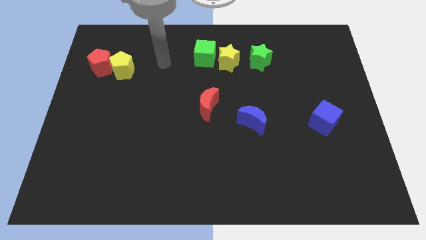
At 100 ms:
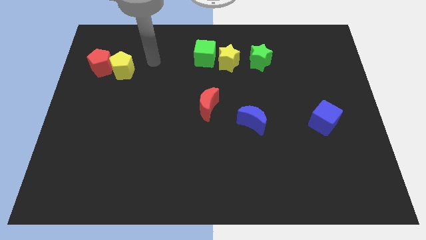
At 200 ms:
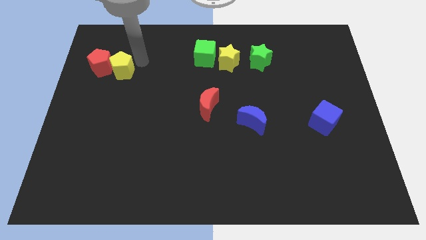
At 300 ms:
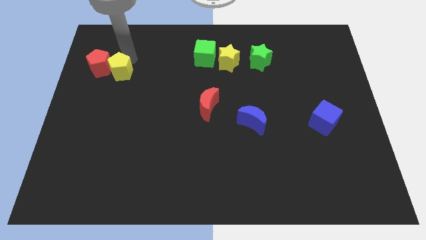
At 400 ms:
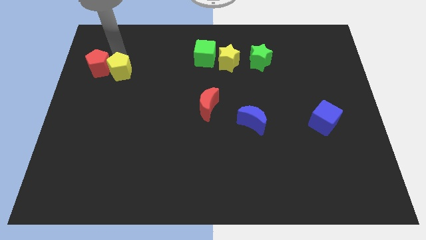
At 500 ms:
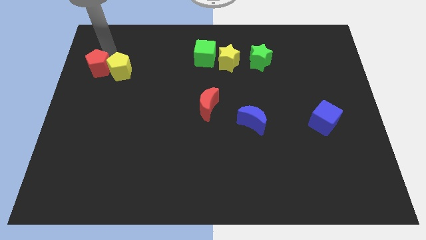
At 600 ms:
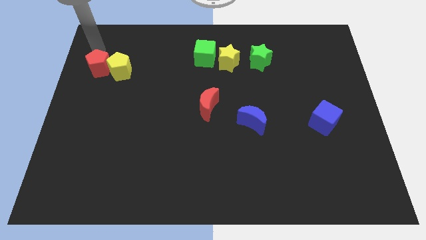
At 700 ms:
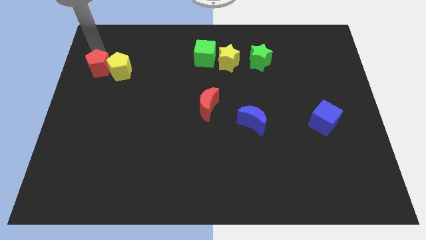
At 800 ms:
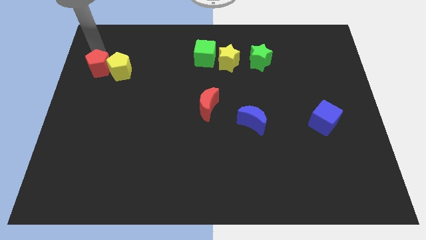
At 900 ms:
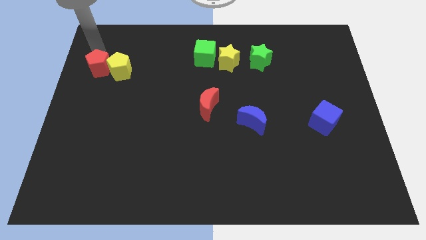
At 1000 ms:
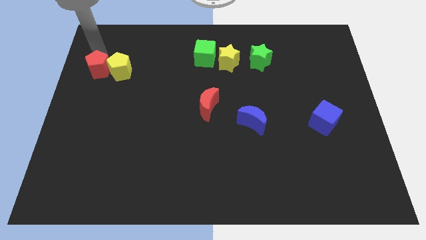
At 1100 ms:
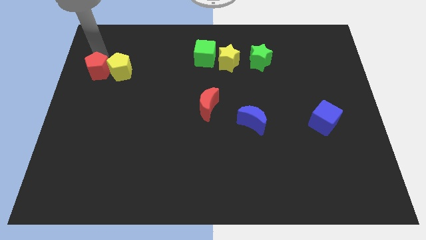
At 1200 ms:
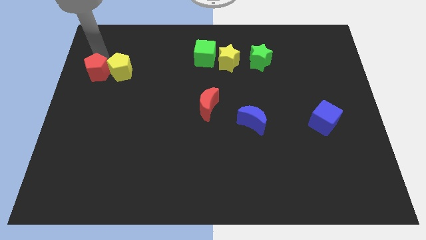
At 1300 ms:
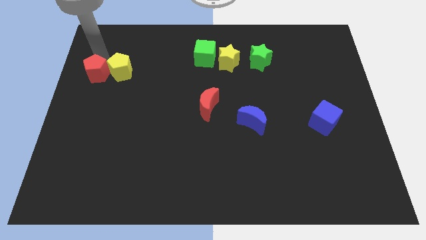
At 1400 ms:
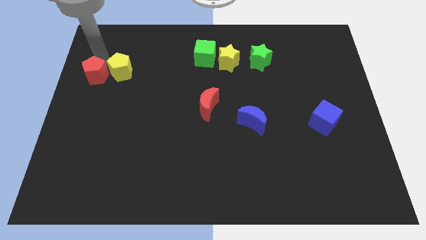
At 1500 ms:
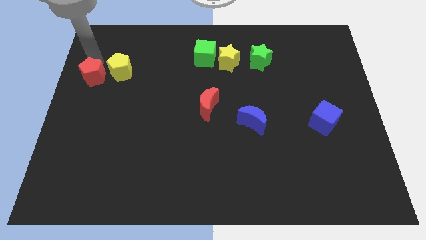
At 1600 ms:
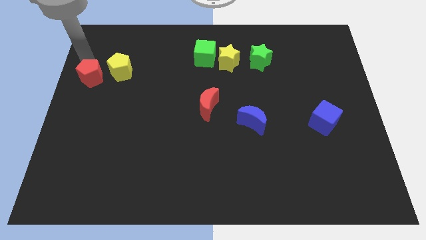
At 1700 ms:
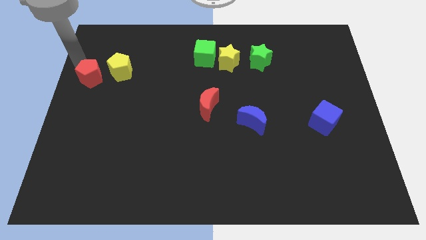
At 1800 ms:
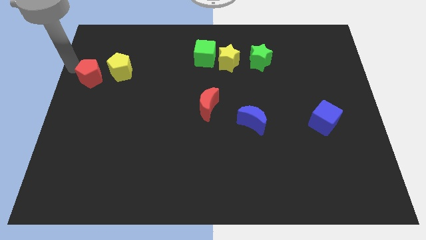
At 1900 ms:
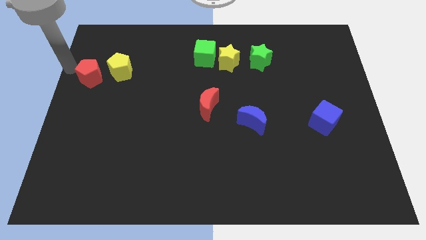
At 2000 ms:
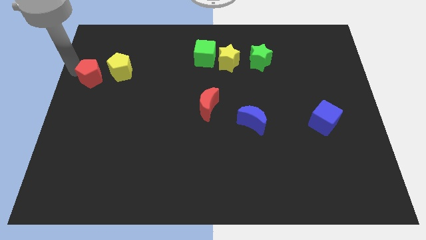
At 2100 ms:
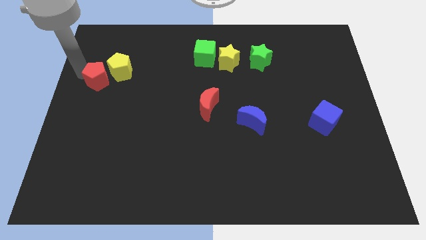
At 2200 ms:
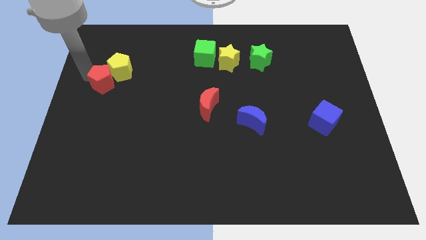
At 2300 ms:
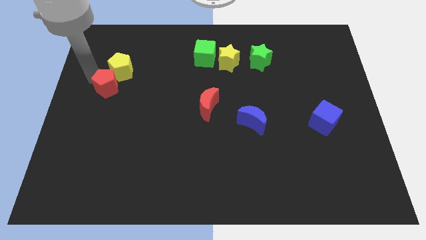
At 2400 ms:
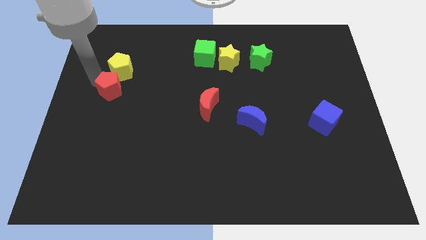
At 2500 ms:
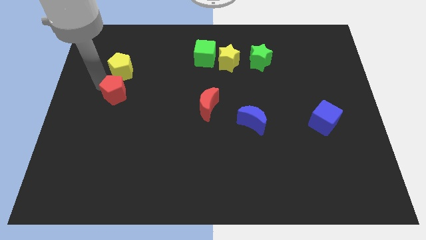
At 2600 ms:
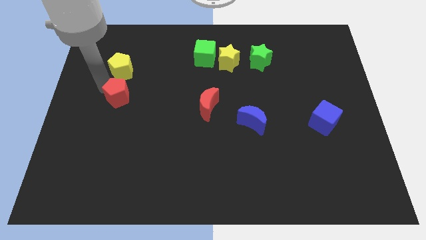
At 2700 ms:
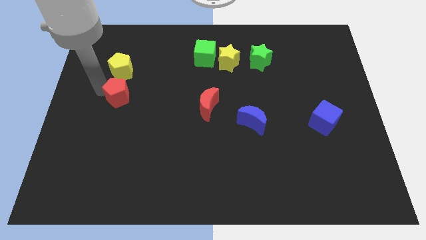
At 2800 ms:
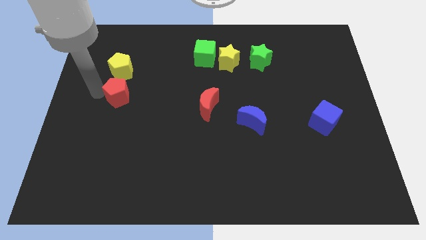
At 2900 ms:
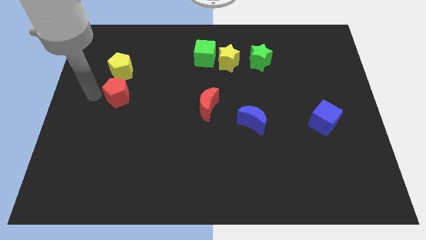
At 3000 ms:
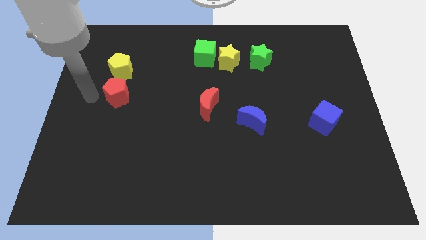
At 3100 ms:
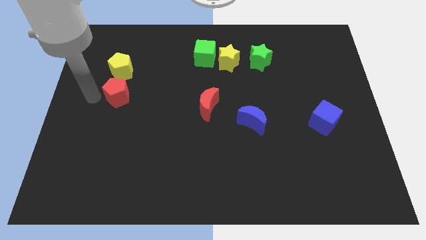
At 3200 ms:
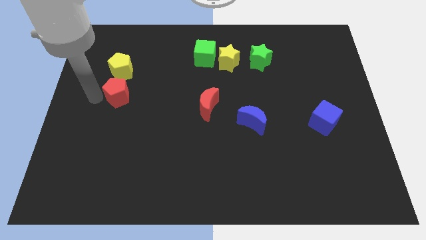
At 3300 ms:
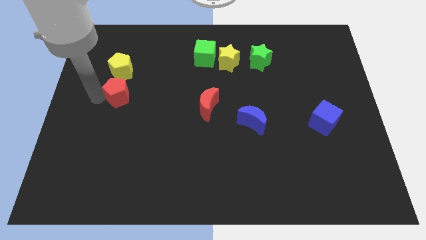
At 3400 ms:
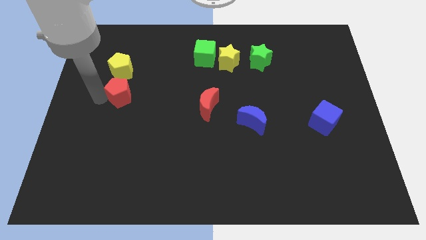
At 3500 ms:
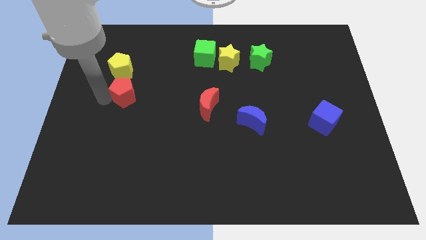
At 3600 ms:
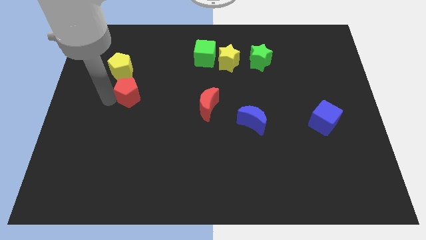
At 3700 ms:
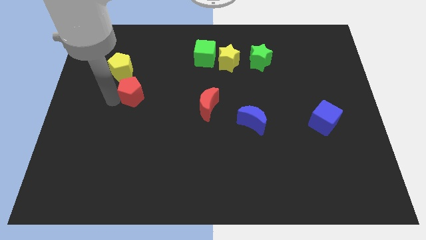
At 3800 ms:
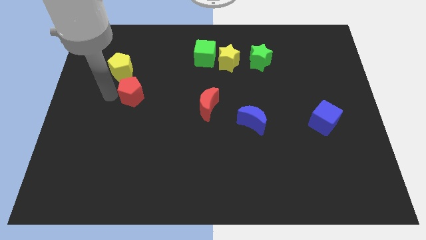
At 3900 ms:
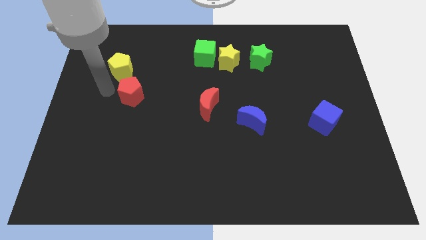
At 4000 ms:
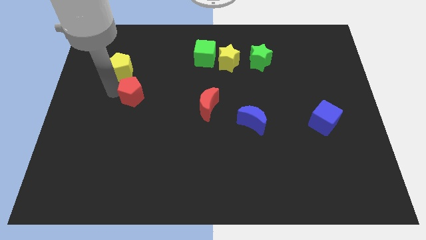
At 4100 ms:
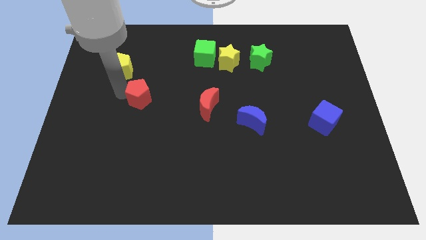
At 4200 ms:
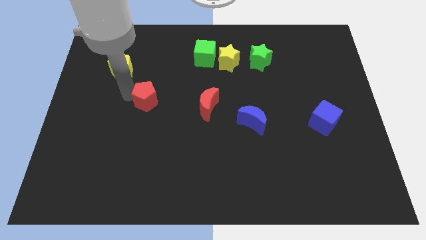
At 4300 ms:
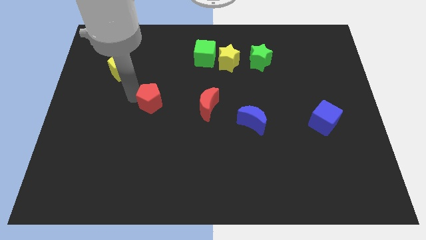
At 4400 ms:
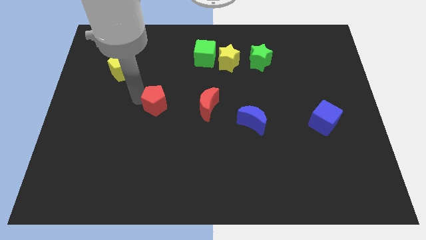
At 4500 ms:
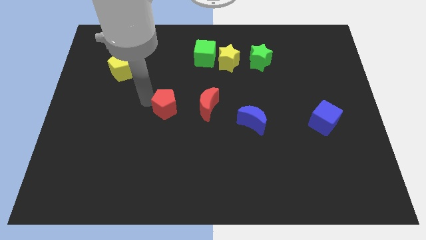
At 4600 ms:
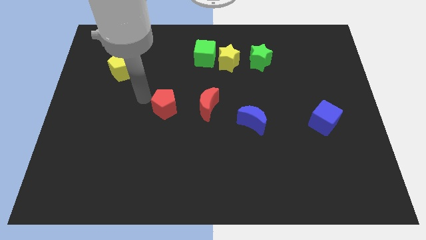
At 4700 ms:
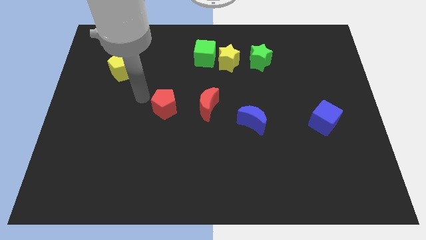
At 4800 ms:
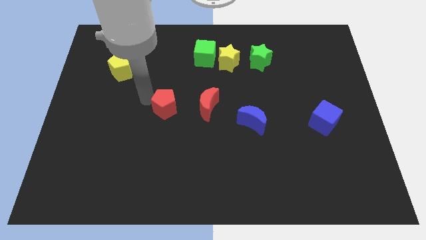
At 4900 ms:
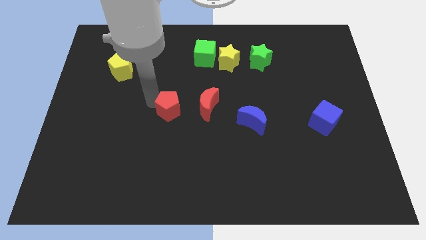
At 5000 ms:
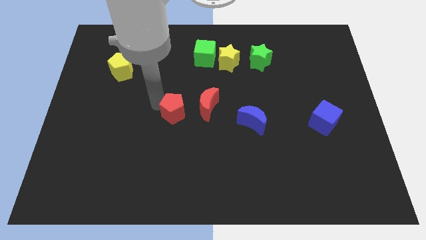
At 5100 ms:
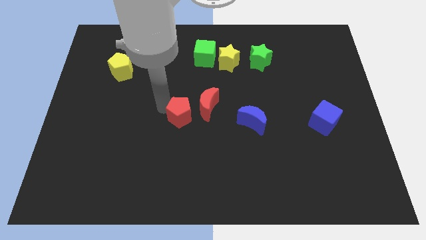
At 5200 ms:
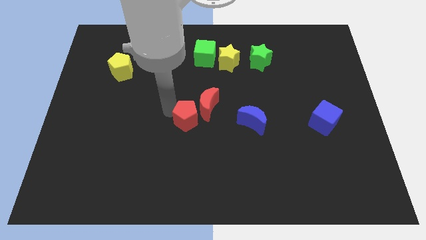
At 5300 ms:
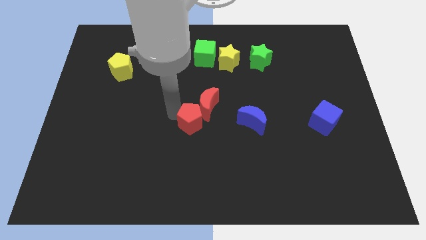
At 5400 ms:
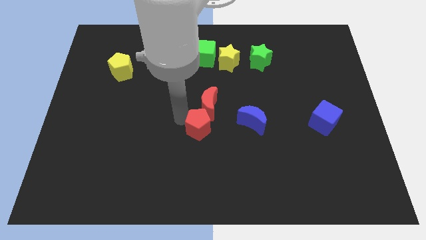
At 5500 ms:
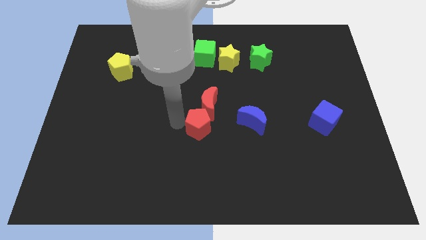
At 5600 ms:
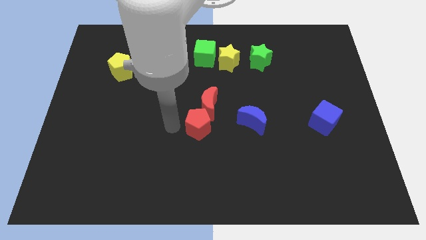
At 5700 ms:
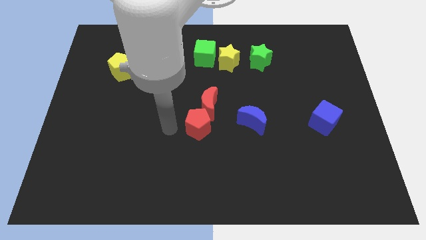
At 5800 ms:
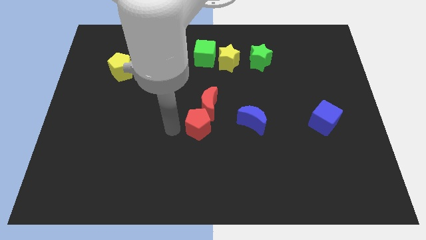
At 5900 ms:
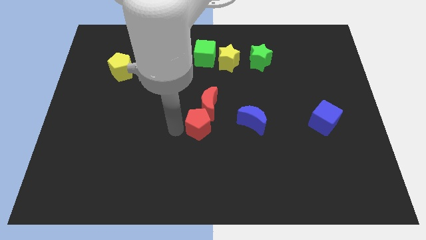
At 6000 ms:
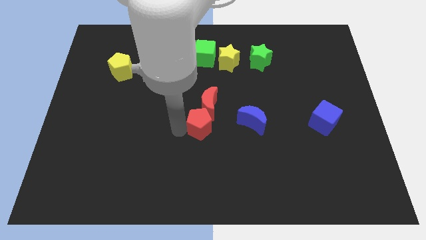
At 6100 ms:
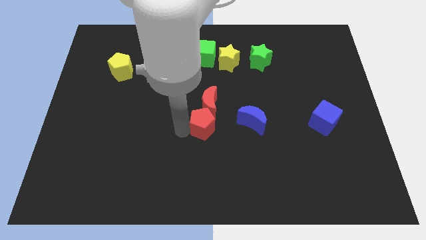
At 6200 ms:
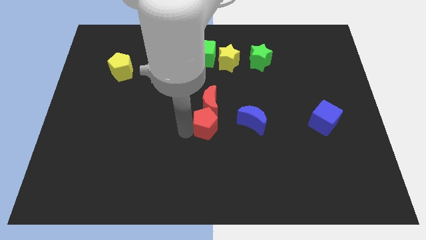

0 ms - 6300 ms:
push the red pentagon to the bottom right side of the red moon
